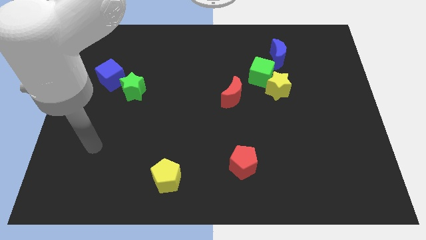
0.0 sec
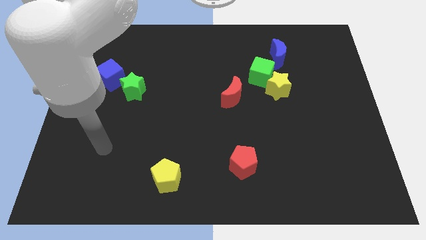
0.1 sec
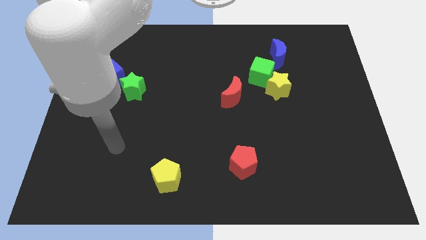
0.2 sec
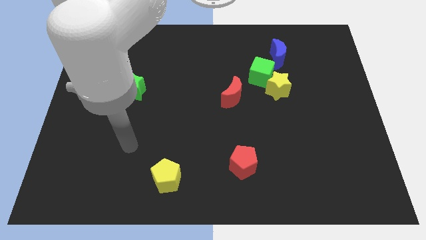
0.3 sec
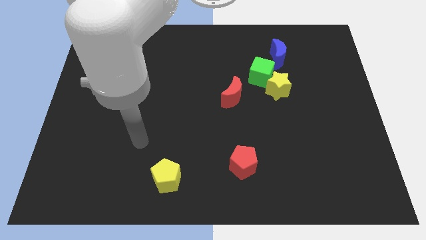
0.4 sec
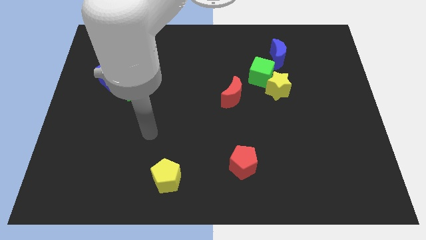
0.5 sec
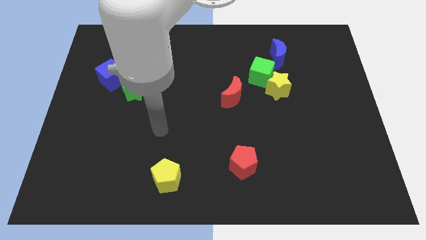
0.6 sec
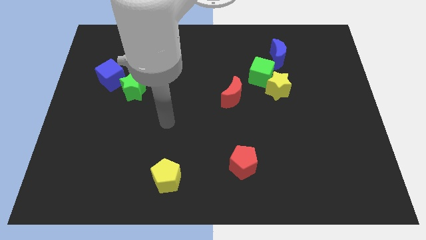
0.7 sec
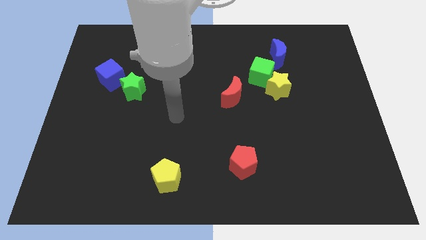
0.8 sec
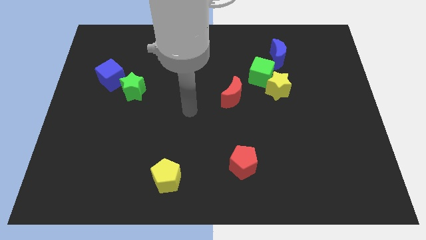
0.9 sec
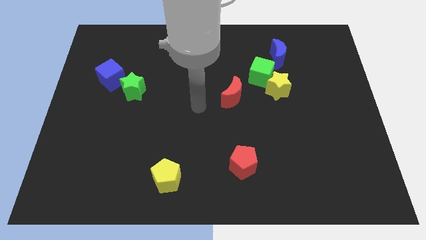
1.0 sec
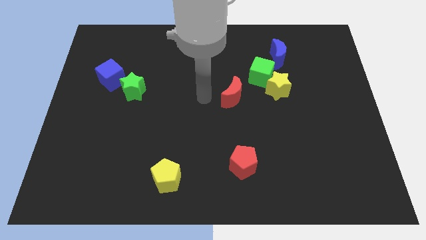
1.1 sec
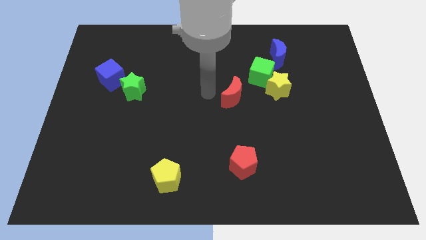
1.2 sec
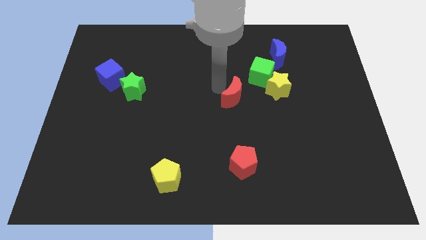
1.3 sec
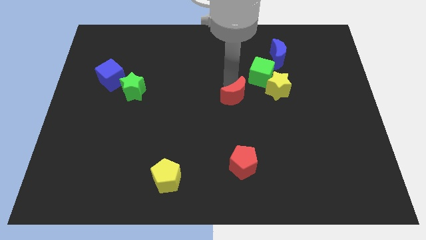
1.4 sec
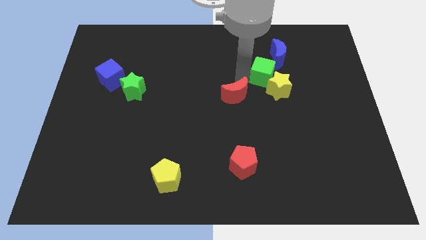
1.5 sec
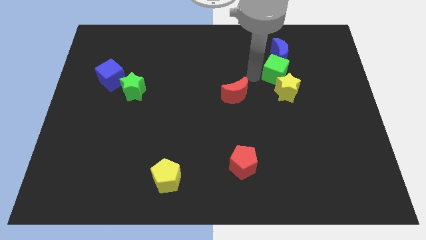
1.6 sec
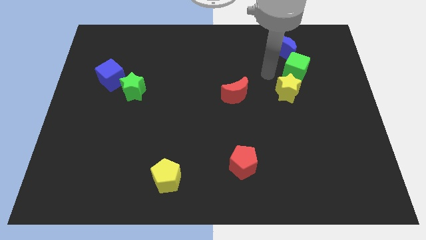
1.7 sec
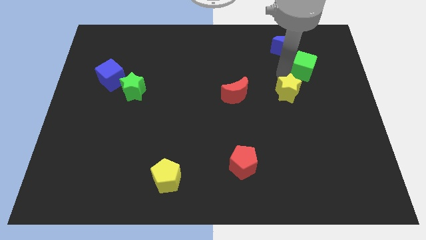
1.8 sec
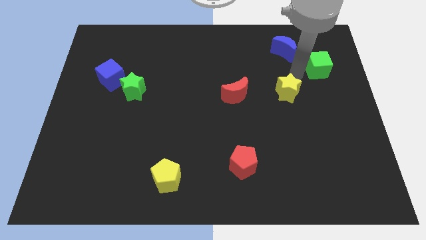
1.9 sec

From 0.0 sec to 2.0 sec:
pull the yellow star apart from the green cube

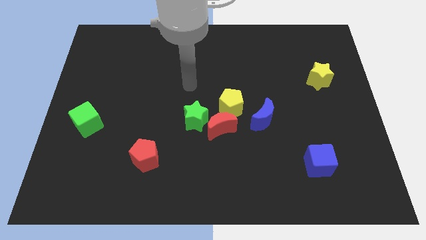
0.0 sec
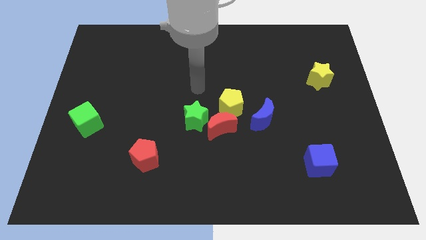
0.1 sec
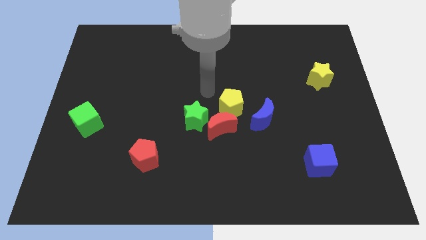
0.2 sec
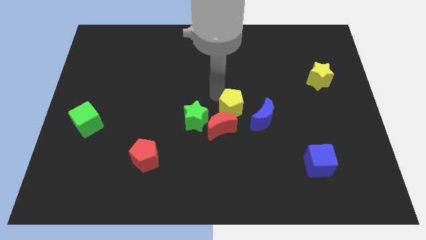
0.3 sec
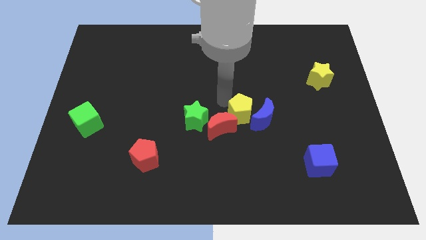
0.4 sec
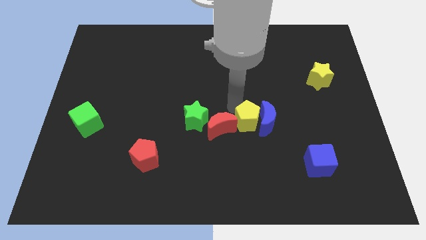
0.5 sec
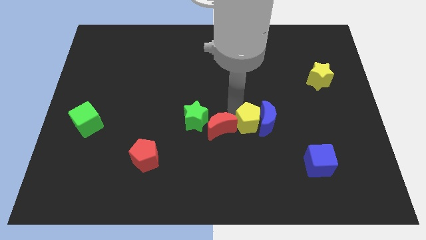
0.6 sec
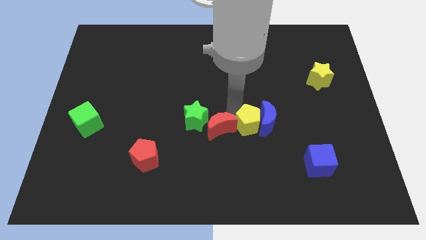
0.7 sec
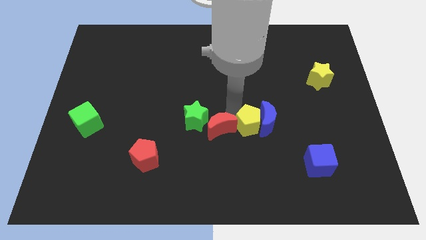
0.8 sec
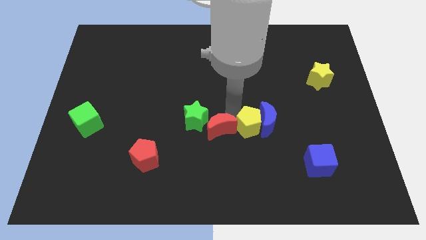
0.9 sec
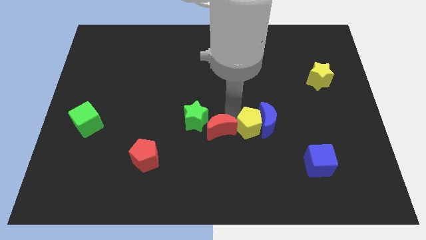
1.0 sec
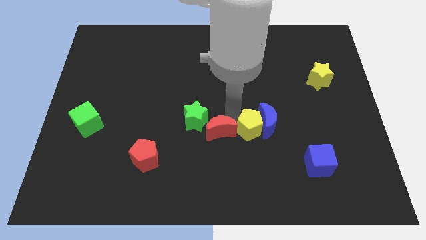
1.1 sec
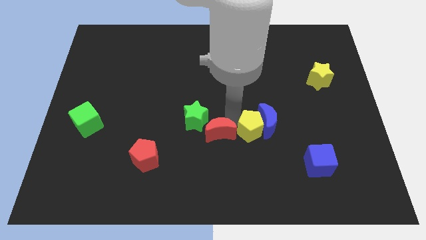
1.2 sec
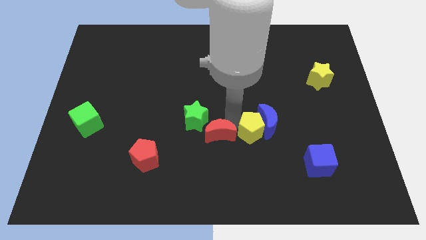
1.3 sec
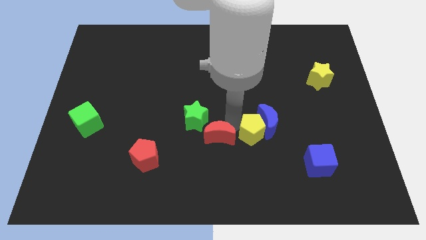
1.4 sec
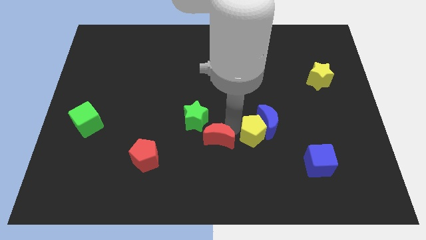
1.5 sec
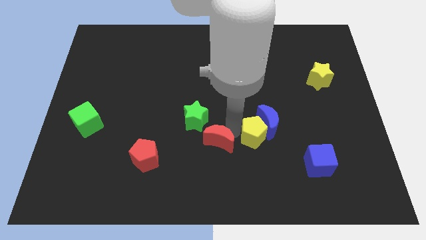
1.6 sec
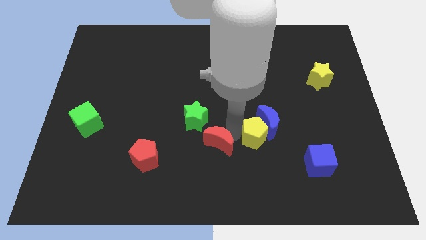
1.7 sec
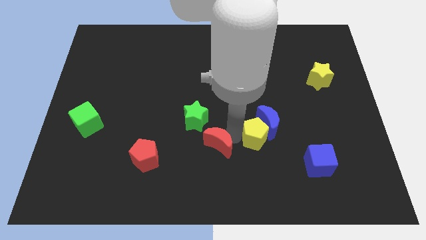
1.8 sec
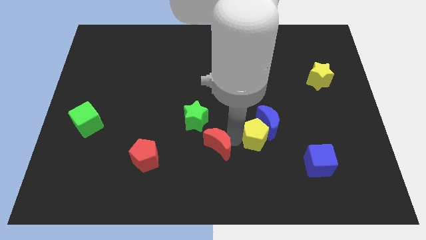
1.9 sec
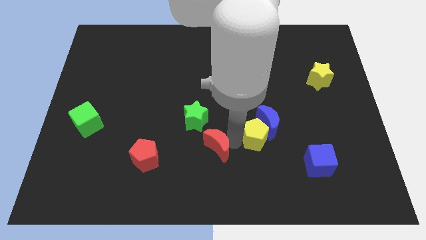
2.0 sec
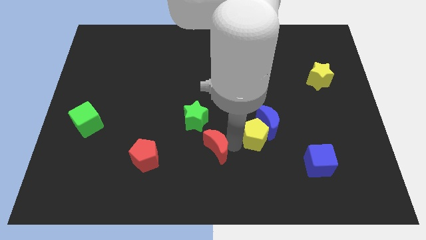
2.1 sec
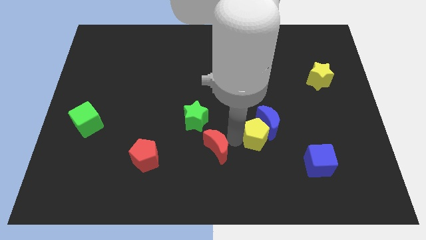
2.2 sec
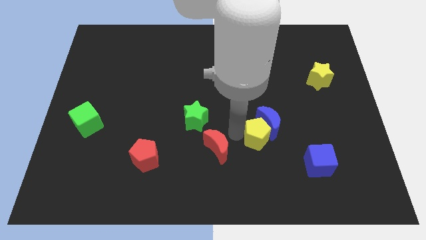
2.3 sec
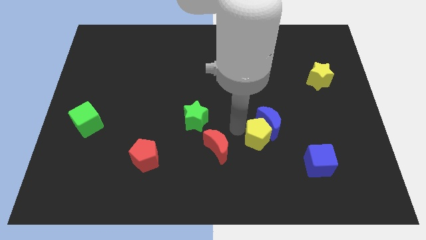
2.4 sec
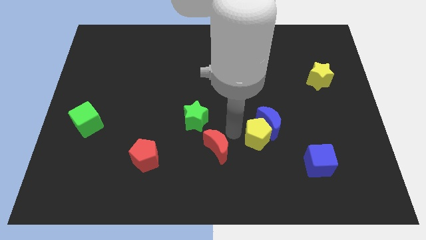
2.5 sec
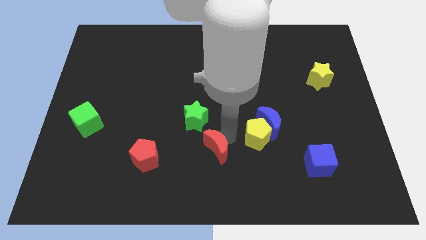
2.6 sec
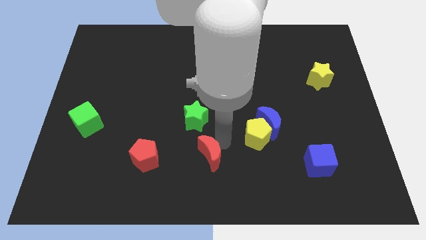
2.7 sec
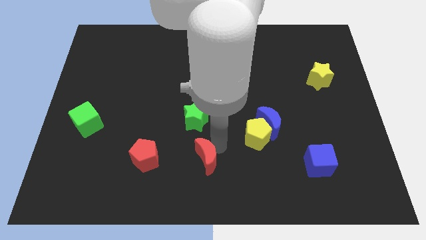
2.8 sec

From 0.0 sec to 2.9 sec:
pull the red moon apart from the group of blocks

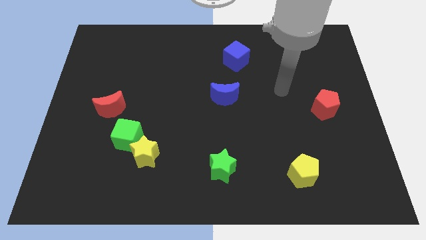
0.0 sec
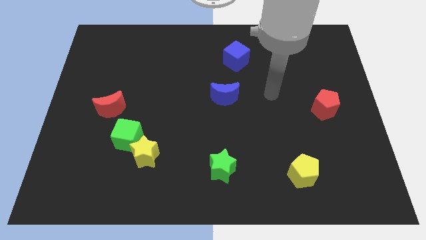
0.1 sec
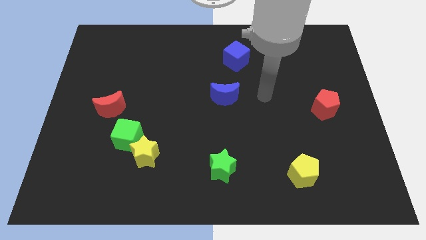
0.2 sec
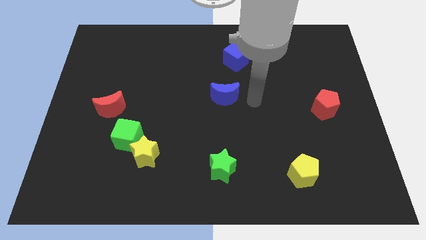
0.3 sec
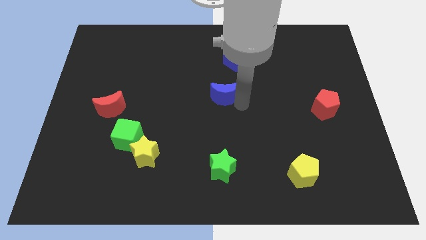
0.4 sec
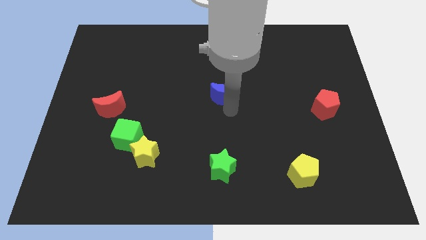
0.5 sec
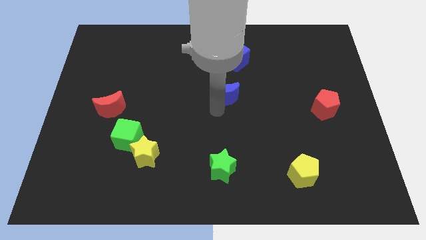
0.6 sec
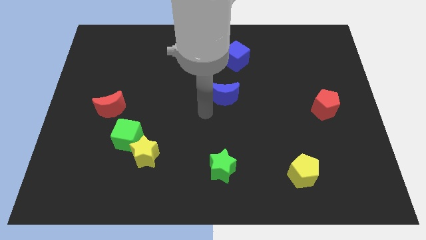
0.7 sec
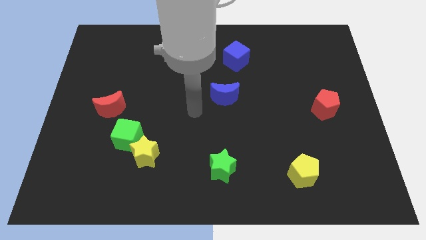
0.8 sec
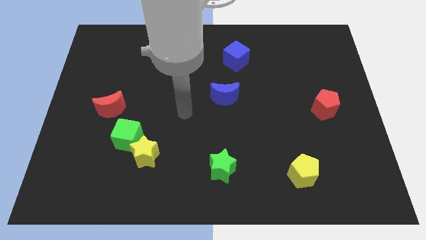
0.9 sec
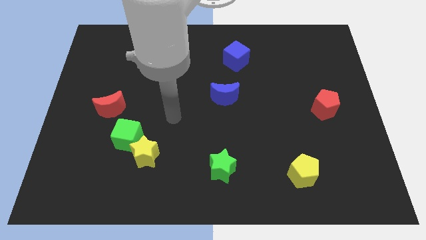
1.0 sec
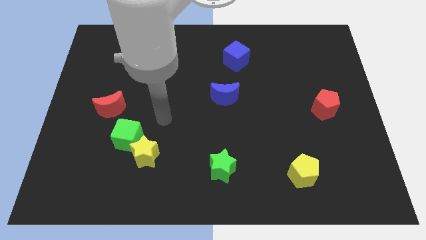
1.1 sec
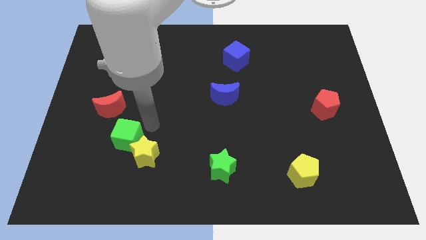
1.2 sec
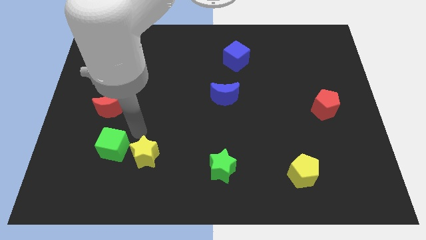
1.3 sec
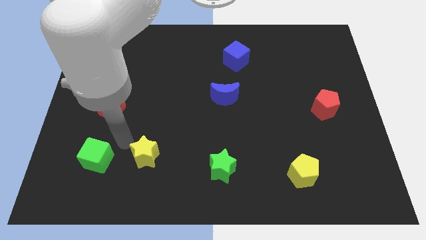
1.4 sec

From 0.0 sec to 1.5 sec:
separate the yellow star from the green cube

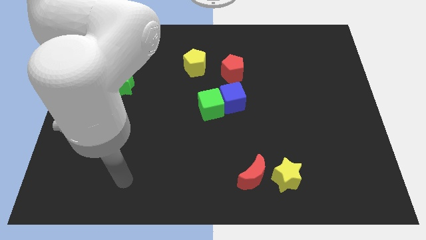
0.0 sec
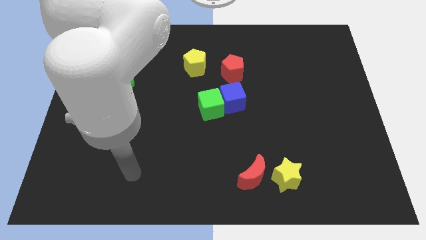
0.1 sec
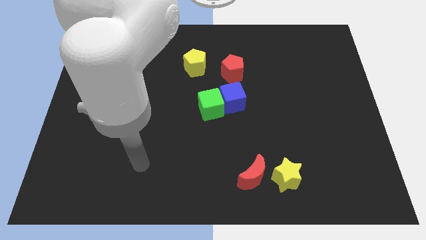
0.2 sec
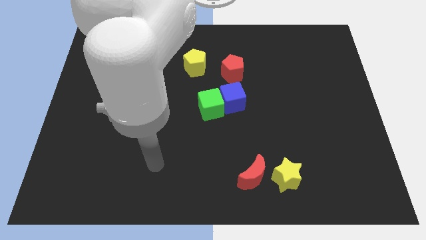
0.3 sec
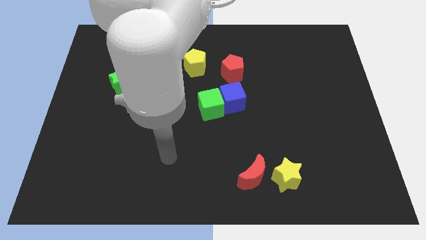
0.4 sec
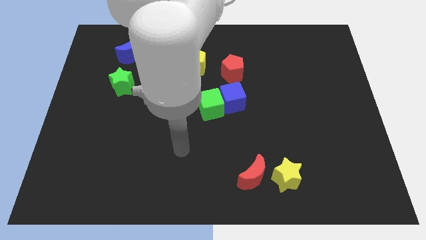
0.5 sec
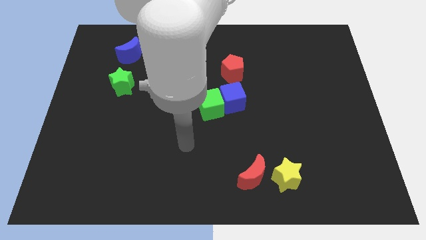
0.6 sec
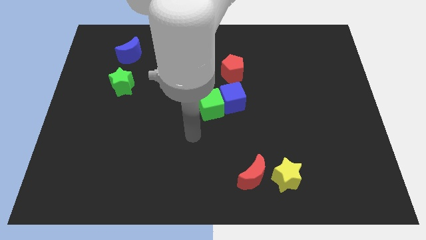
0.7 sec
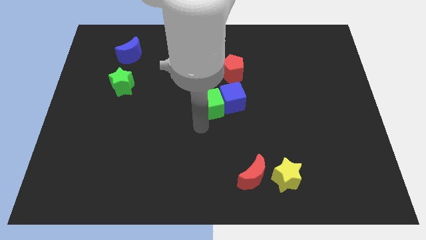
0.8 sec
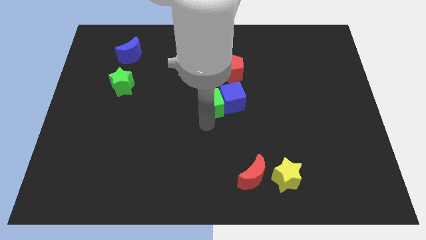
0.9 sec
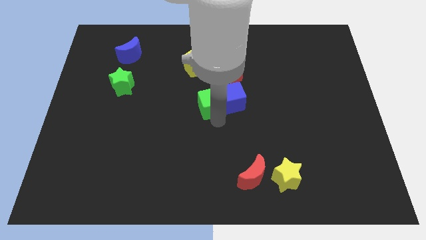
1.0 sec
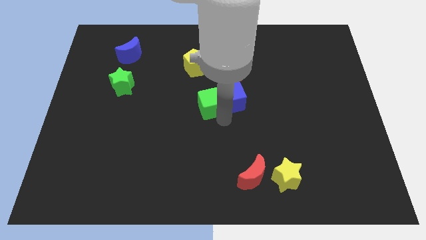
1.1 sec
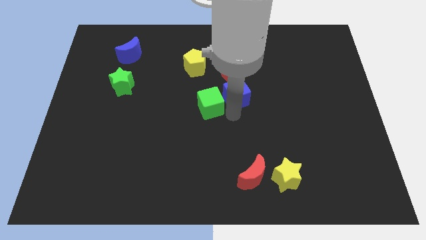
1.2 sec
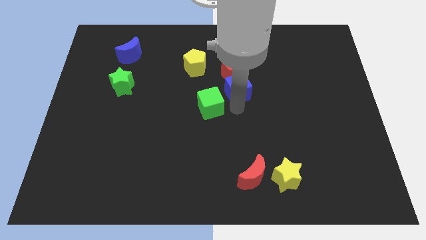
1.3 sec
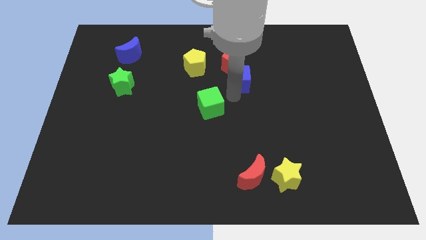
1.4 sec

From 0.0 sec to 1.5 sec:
separate the green cube from the blue cube

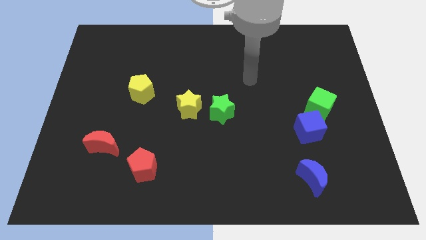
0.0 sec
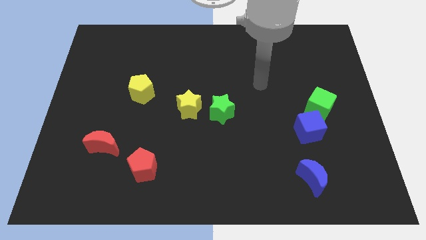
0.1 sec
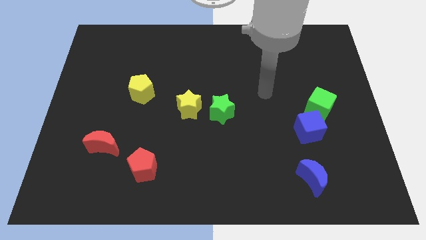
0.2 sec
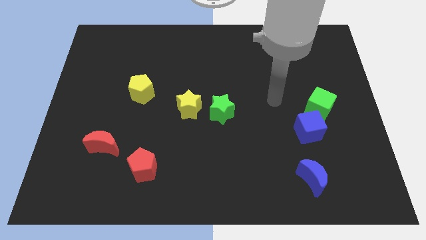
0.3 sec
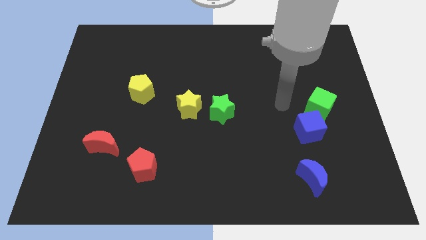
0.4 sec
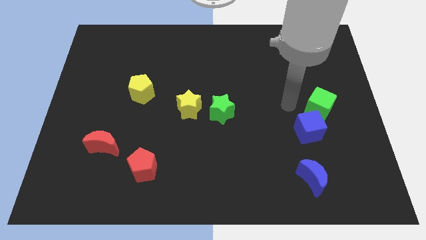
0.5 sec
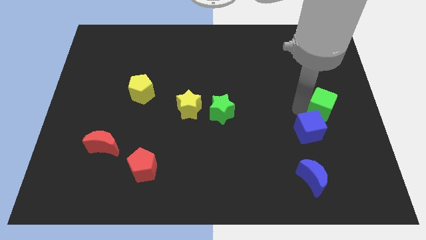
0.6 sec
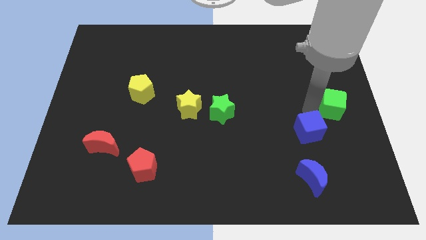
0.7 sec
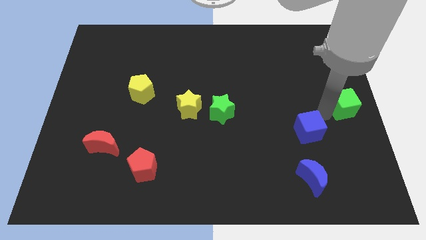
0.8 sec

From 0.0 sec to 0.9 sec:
move the blue cube away from the green cube

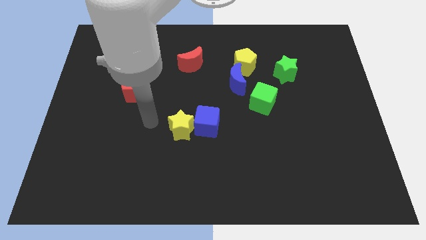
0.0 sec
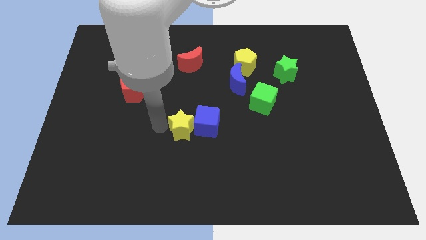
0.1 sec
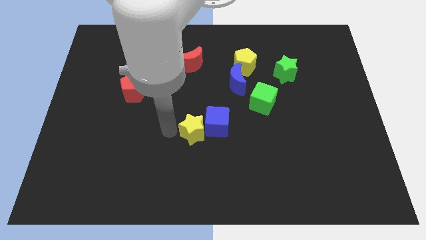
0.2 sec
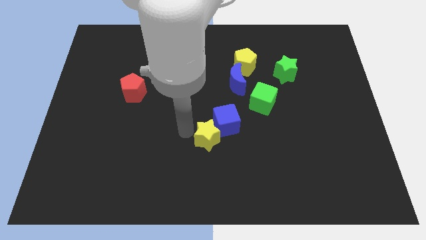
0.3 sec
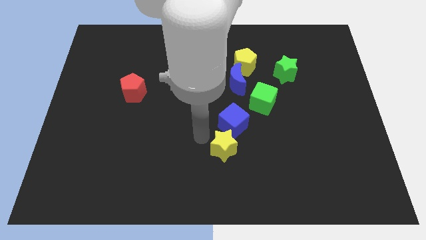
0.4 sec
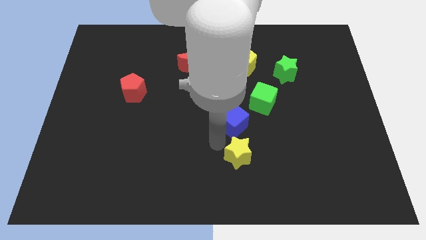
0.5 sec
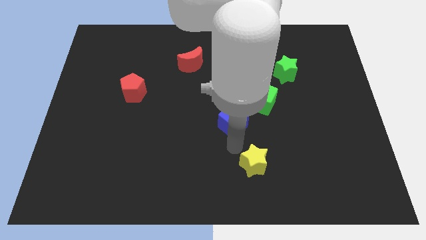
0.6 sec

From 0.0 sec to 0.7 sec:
move the blue cube away from the yellow star
